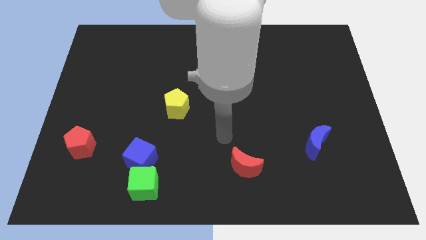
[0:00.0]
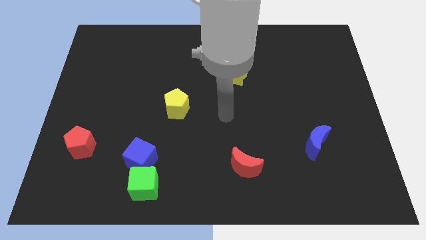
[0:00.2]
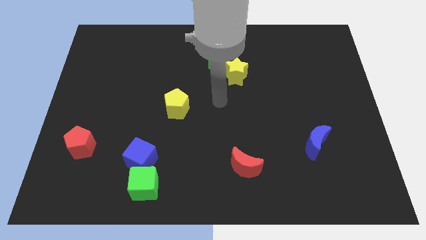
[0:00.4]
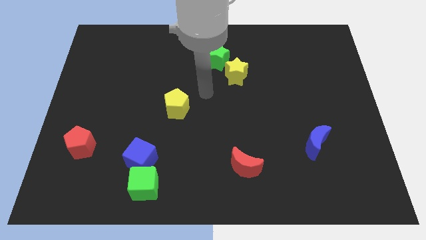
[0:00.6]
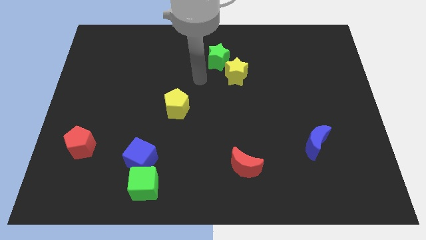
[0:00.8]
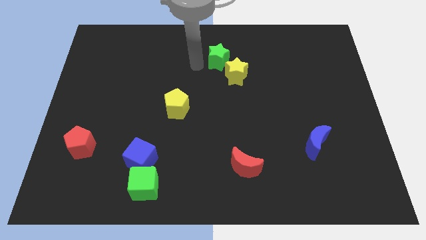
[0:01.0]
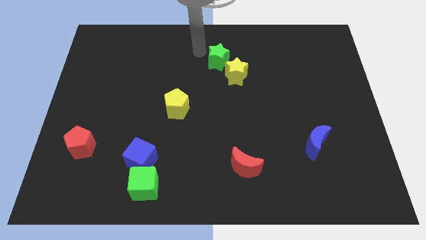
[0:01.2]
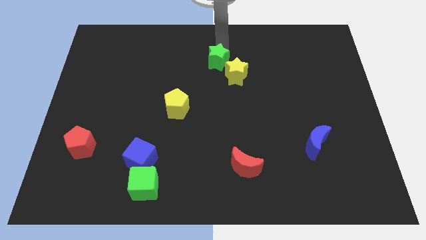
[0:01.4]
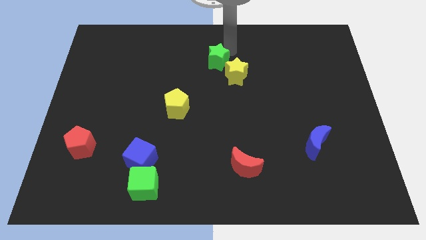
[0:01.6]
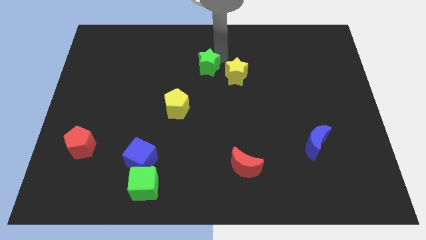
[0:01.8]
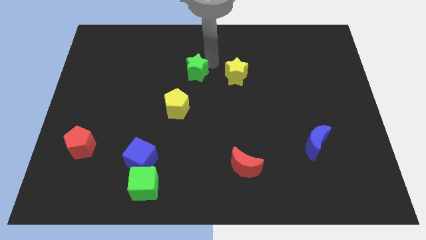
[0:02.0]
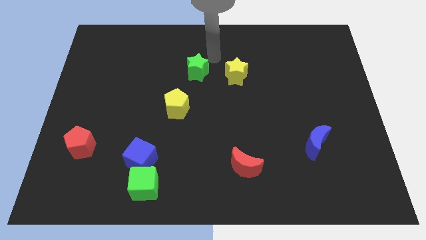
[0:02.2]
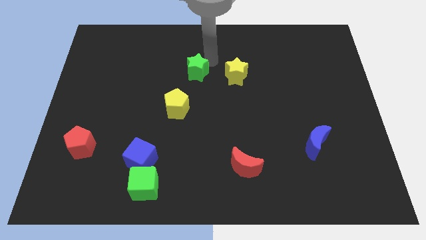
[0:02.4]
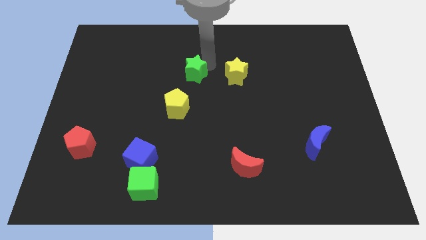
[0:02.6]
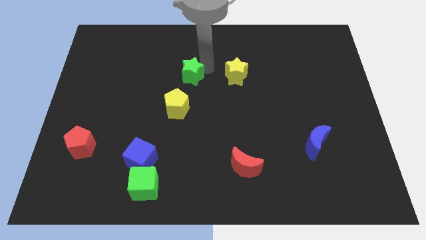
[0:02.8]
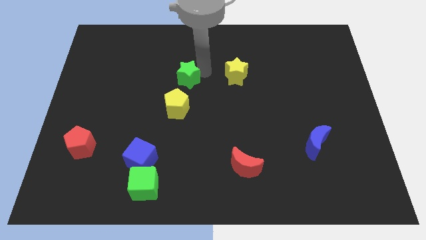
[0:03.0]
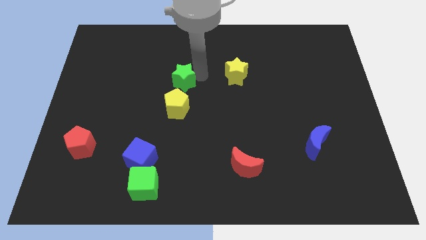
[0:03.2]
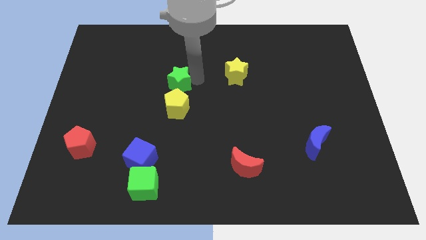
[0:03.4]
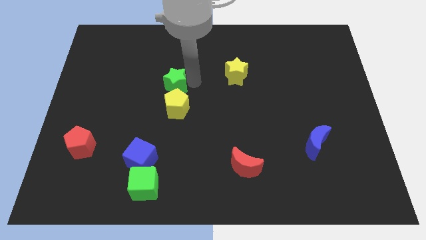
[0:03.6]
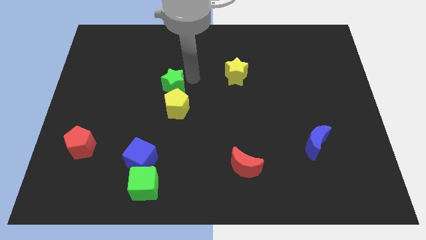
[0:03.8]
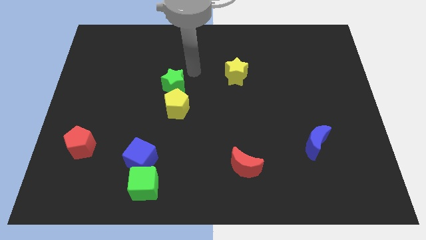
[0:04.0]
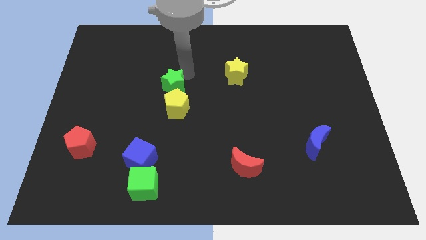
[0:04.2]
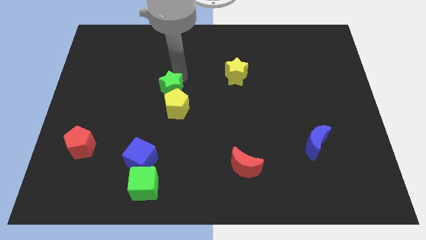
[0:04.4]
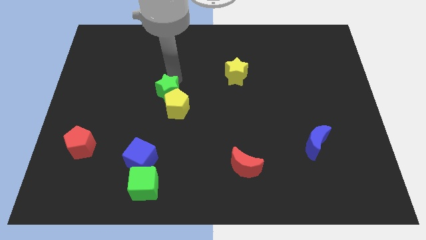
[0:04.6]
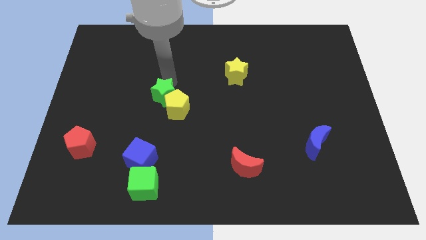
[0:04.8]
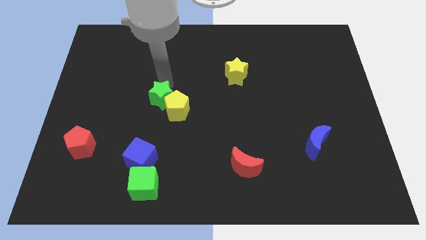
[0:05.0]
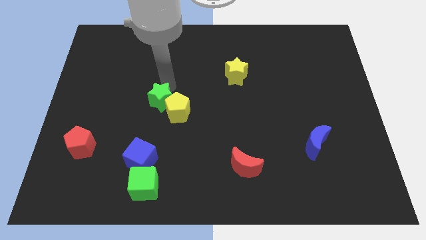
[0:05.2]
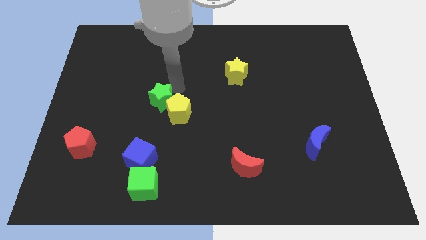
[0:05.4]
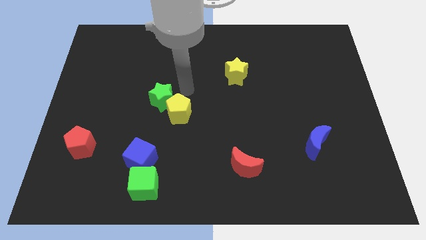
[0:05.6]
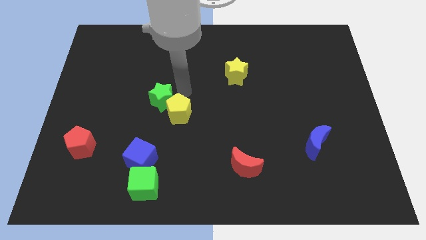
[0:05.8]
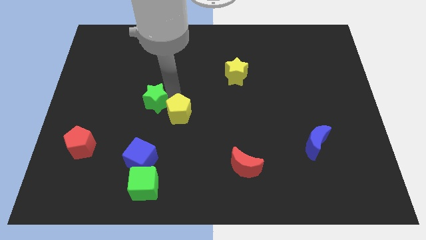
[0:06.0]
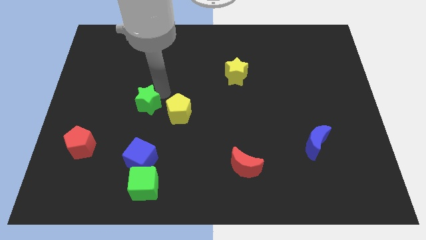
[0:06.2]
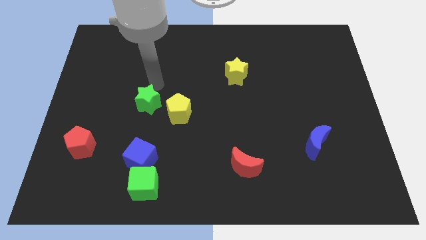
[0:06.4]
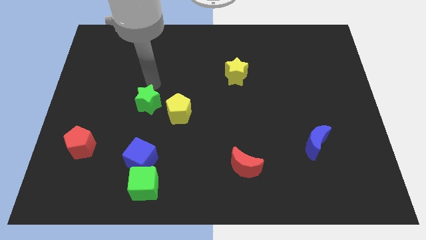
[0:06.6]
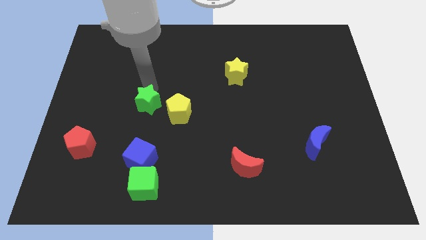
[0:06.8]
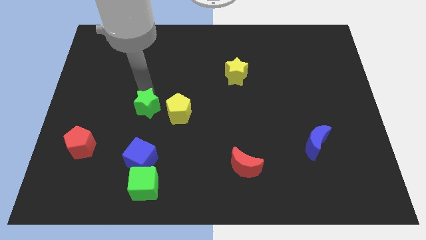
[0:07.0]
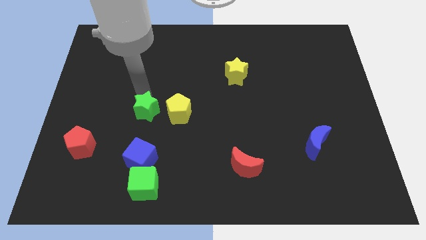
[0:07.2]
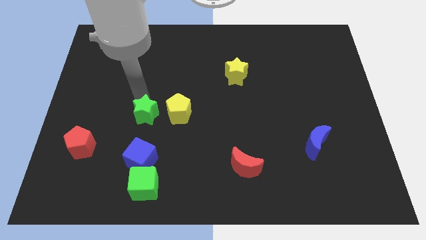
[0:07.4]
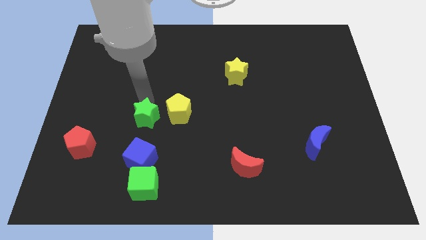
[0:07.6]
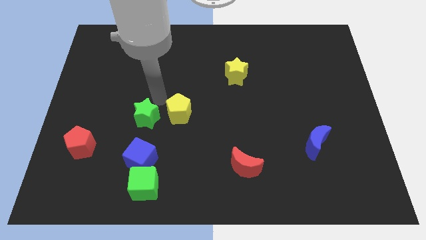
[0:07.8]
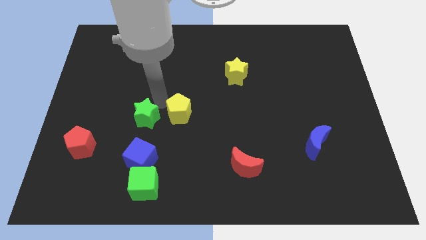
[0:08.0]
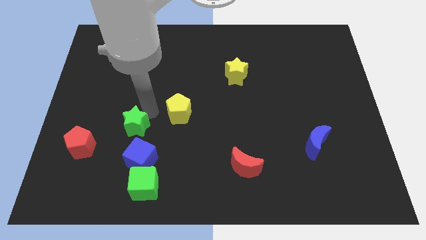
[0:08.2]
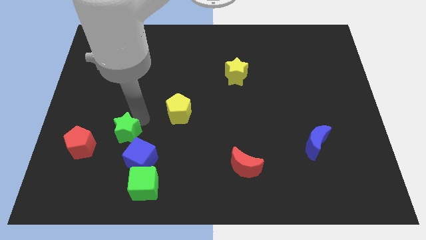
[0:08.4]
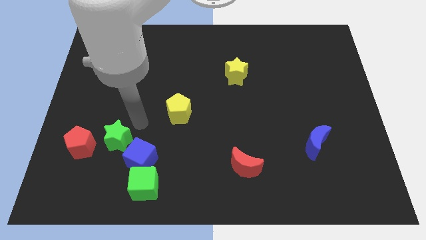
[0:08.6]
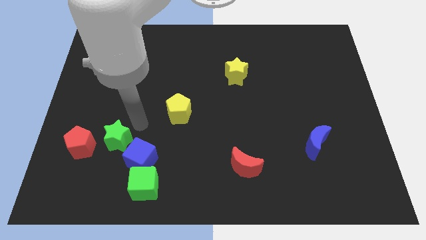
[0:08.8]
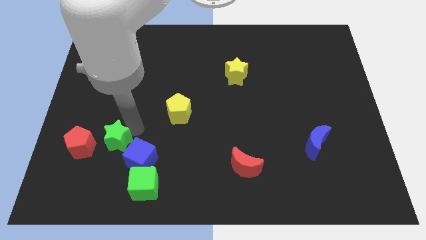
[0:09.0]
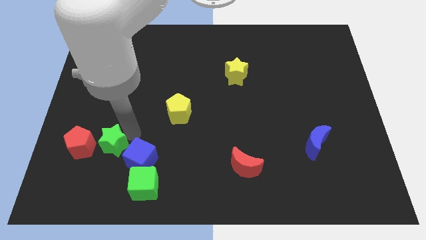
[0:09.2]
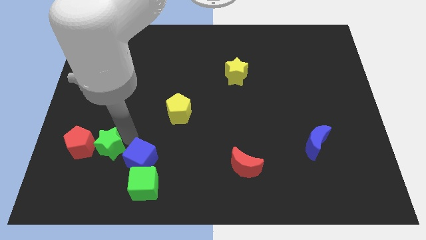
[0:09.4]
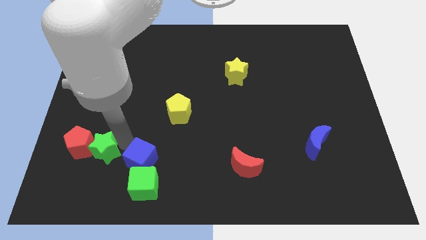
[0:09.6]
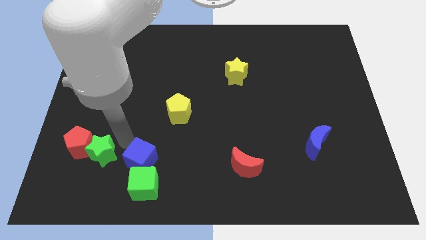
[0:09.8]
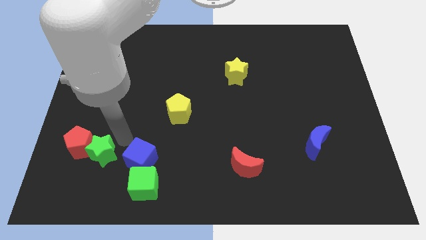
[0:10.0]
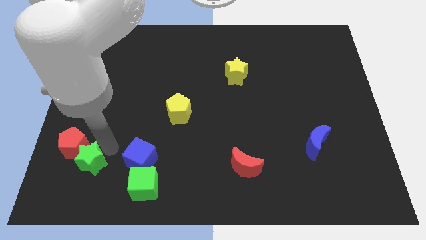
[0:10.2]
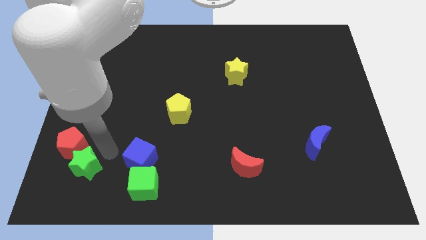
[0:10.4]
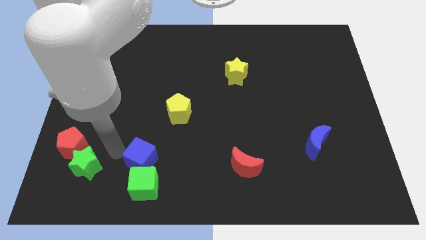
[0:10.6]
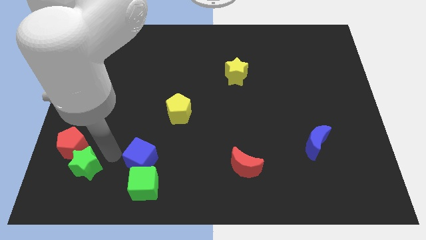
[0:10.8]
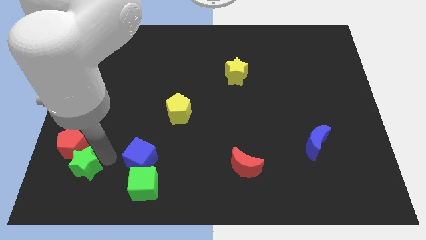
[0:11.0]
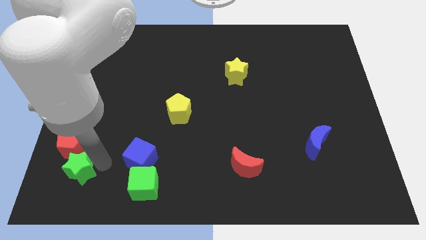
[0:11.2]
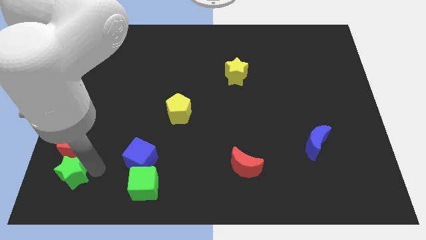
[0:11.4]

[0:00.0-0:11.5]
move the green star to the bottom left of the board

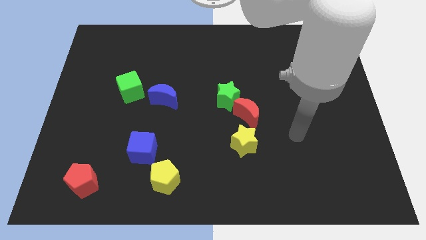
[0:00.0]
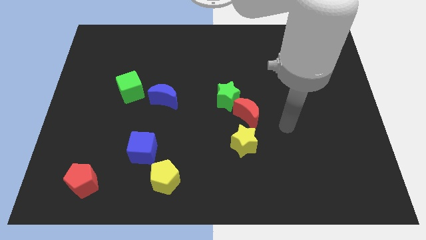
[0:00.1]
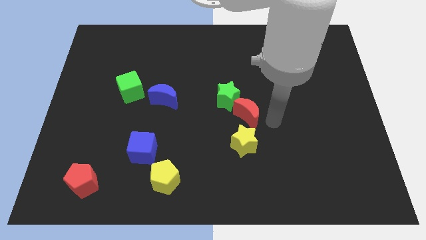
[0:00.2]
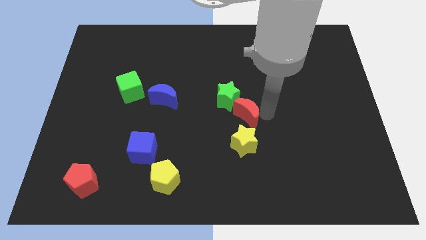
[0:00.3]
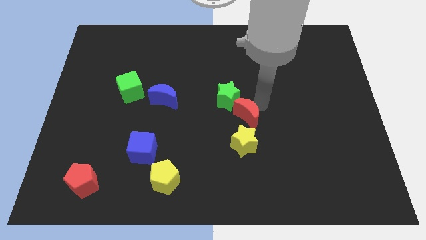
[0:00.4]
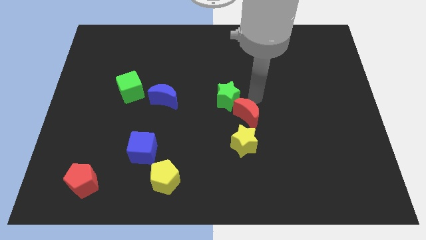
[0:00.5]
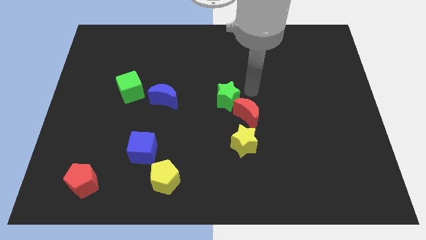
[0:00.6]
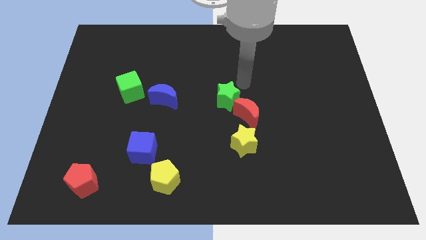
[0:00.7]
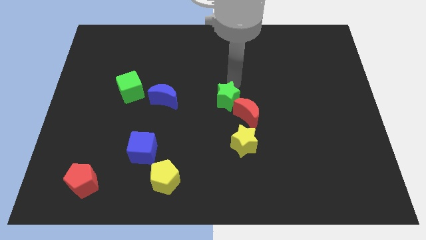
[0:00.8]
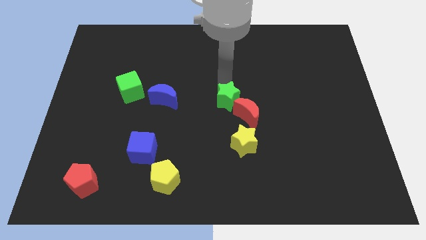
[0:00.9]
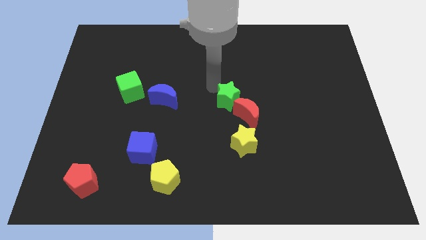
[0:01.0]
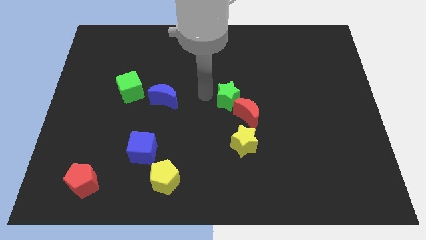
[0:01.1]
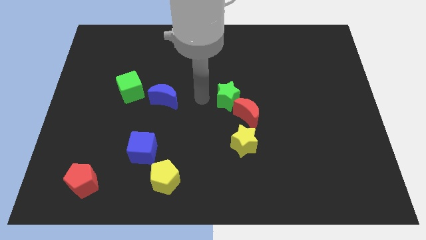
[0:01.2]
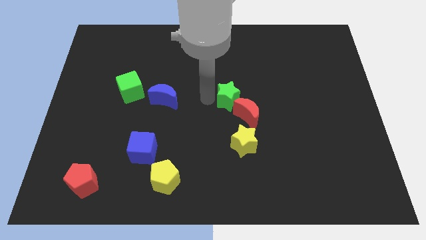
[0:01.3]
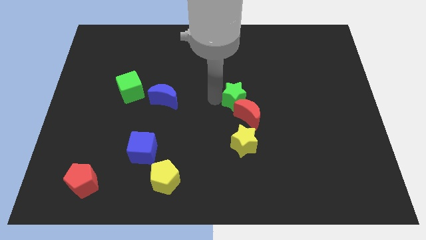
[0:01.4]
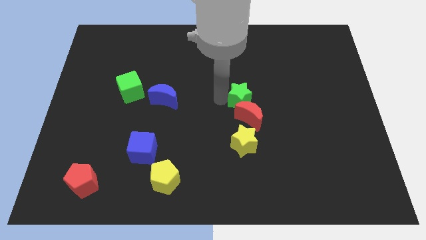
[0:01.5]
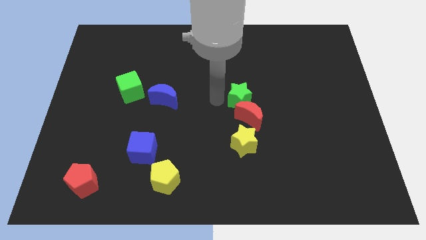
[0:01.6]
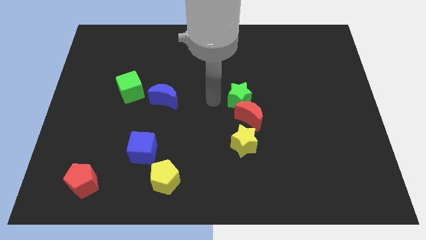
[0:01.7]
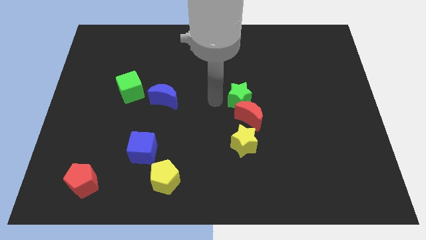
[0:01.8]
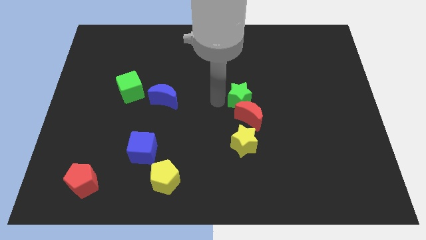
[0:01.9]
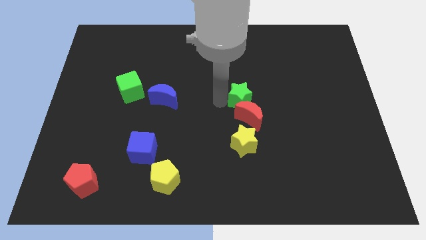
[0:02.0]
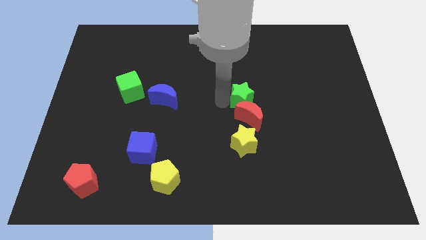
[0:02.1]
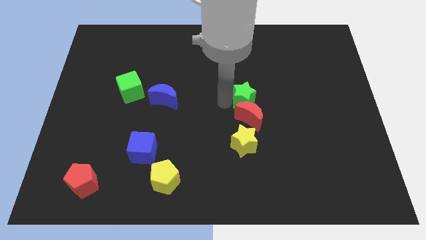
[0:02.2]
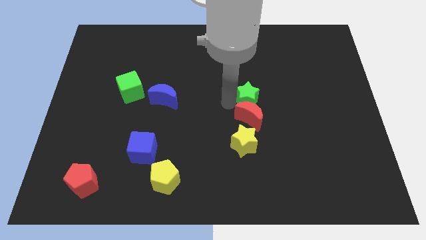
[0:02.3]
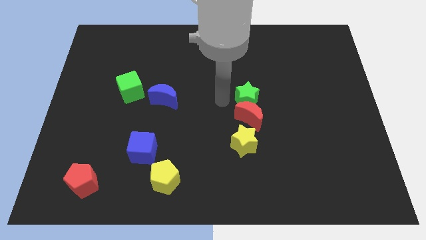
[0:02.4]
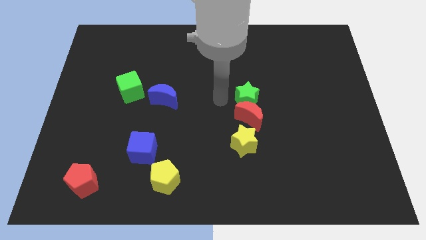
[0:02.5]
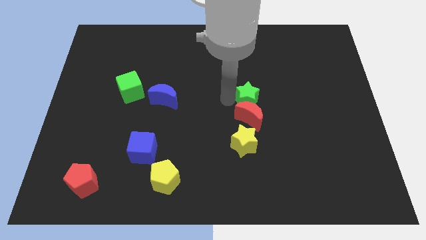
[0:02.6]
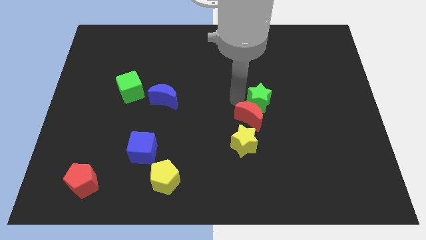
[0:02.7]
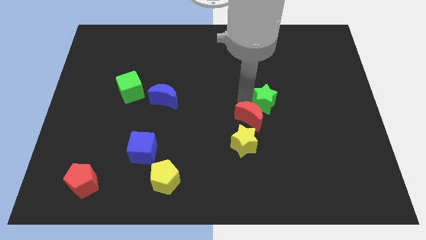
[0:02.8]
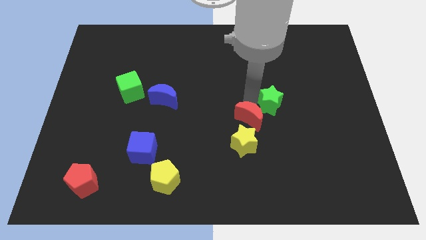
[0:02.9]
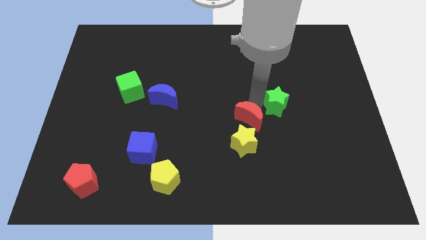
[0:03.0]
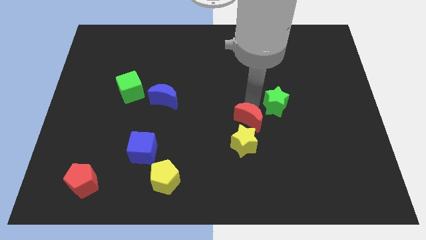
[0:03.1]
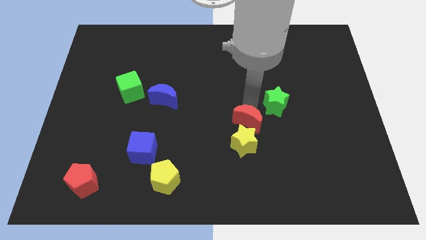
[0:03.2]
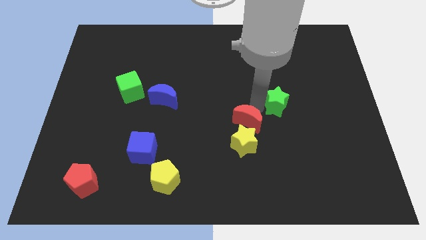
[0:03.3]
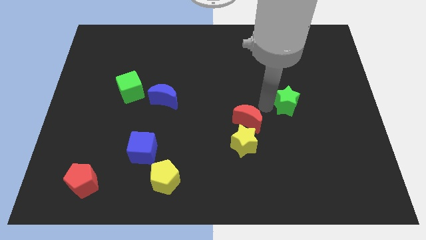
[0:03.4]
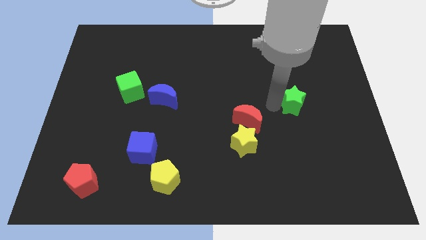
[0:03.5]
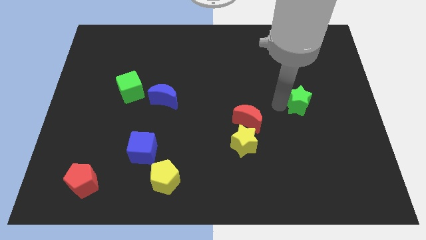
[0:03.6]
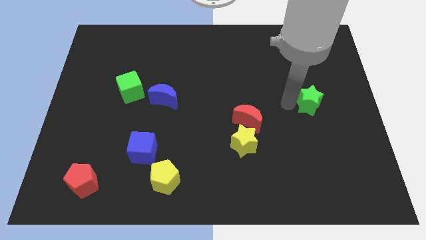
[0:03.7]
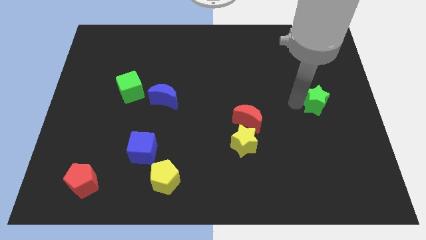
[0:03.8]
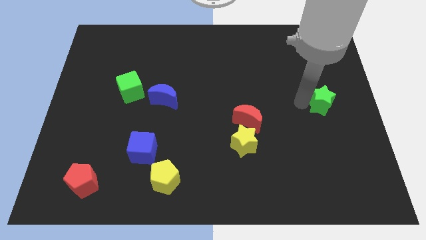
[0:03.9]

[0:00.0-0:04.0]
move the green star to the center right
